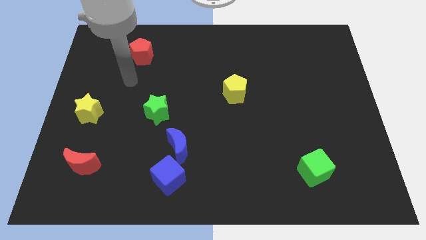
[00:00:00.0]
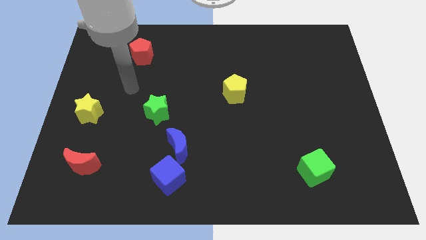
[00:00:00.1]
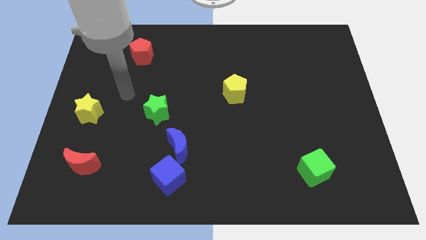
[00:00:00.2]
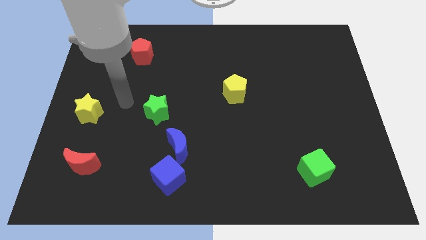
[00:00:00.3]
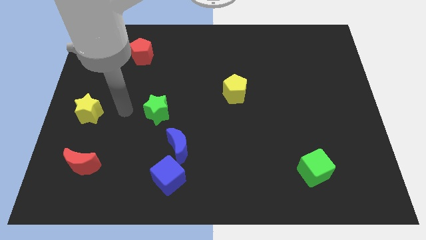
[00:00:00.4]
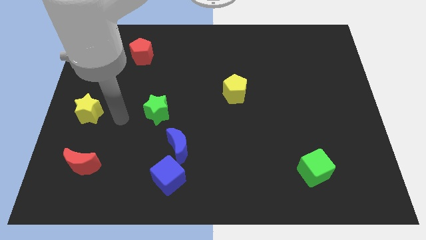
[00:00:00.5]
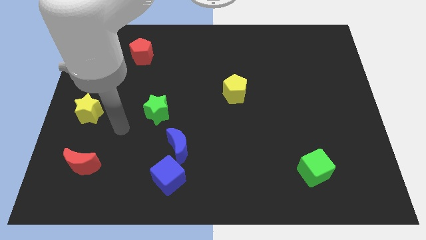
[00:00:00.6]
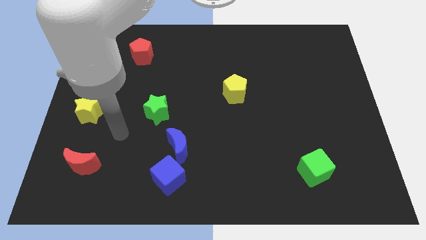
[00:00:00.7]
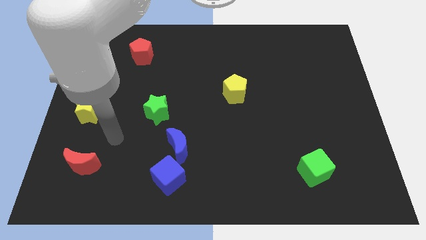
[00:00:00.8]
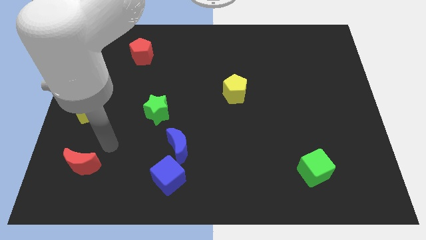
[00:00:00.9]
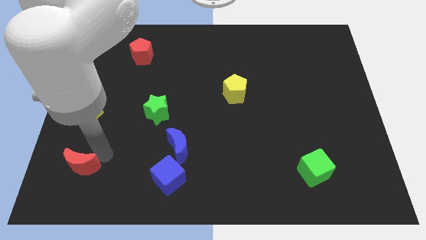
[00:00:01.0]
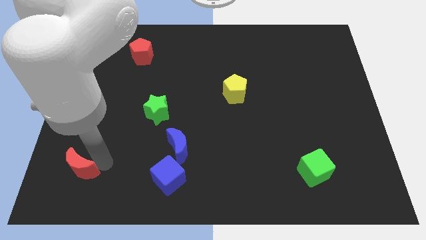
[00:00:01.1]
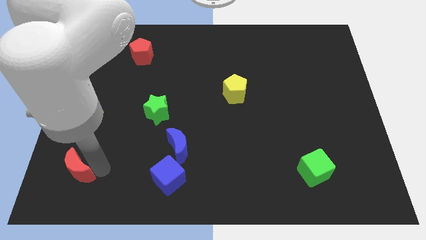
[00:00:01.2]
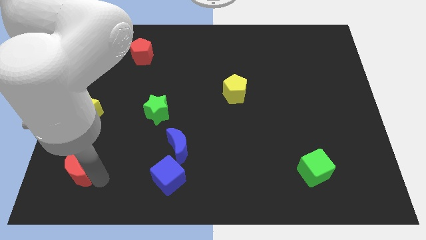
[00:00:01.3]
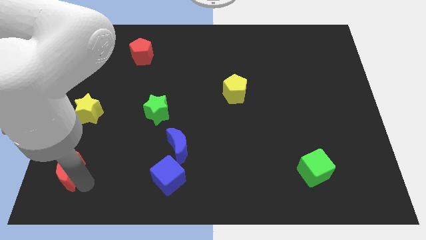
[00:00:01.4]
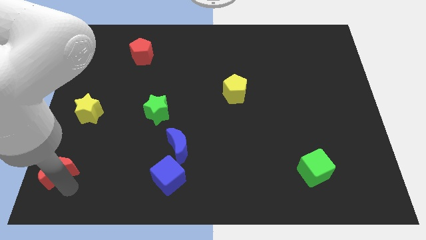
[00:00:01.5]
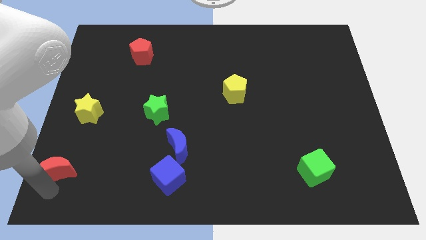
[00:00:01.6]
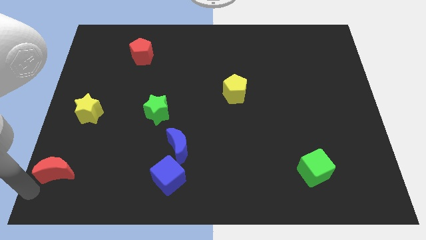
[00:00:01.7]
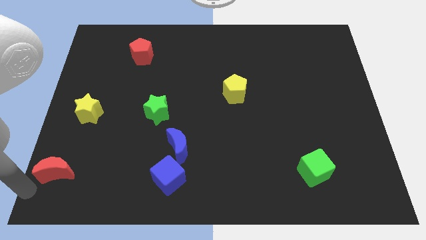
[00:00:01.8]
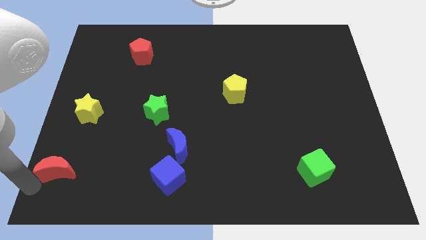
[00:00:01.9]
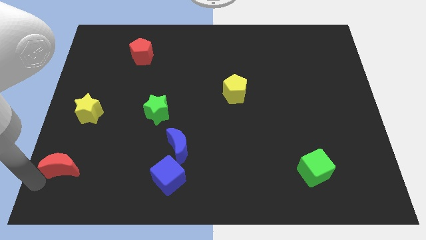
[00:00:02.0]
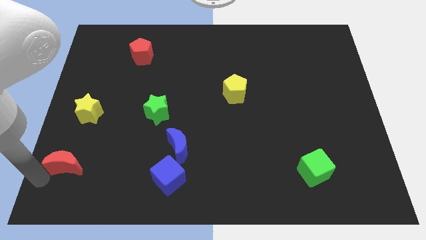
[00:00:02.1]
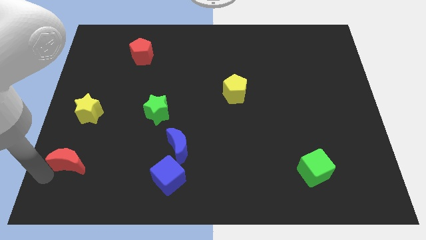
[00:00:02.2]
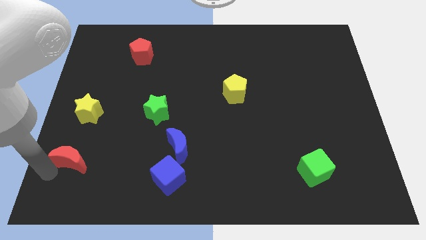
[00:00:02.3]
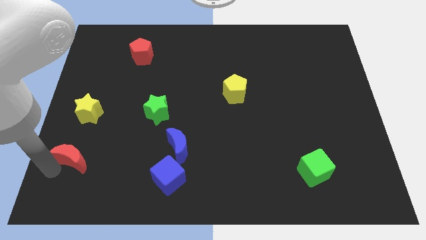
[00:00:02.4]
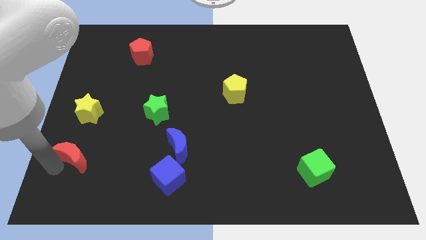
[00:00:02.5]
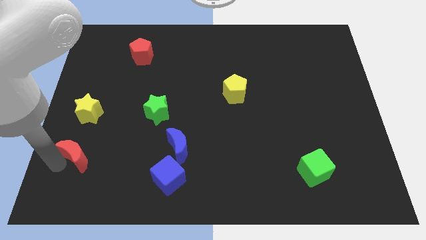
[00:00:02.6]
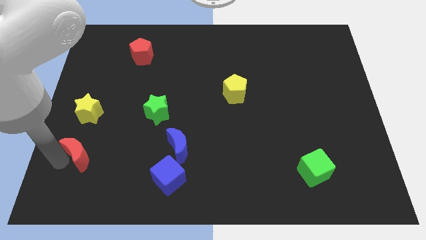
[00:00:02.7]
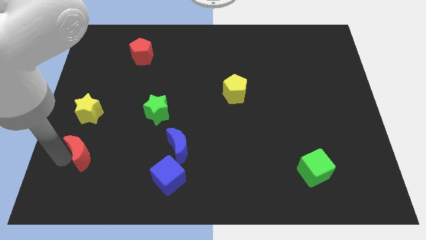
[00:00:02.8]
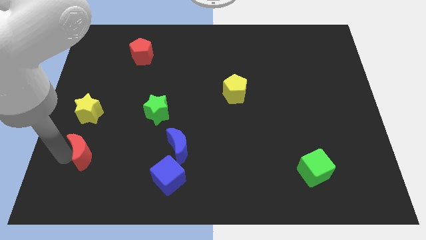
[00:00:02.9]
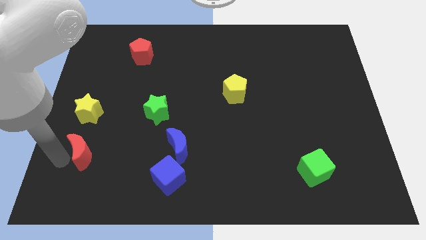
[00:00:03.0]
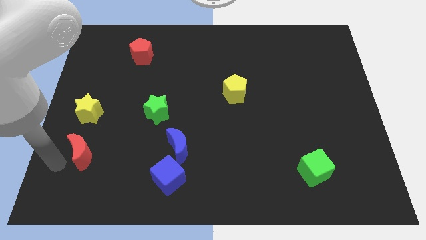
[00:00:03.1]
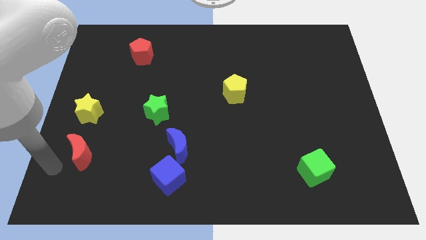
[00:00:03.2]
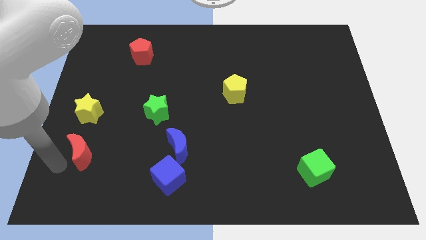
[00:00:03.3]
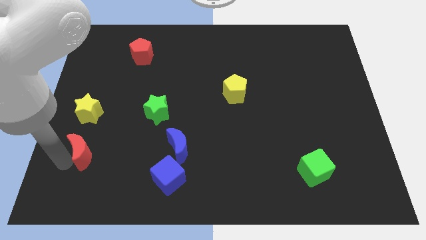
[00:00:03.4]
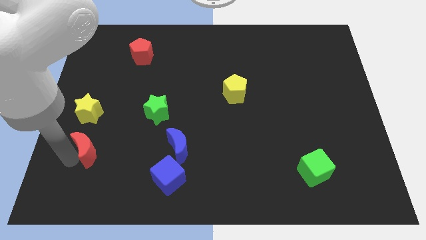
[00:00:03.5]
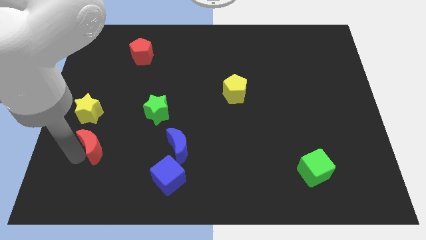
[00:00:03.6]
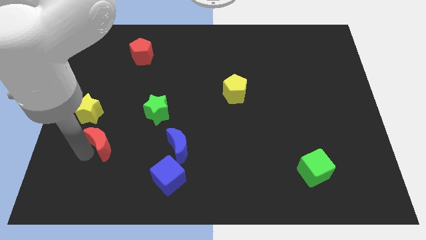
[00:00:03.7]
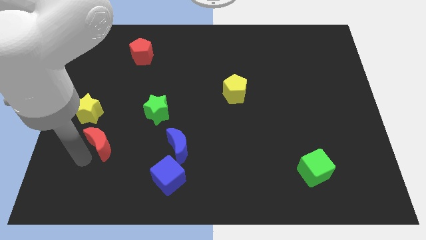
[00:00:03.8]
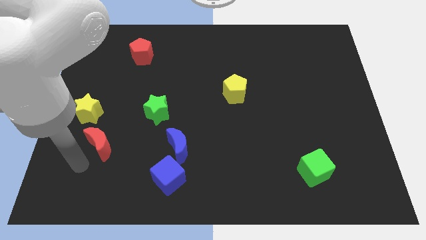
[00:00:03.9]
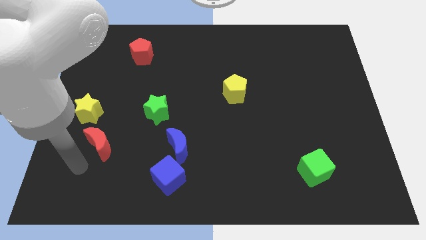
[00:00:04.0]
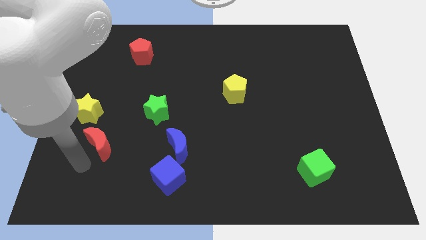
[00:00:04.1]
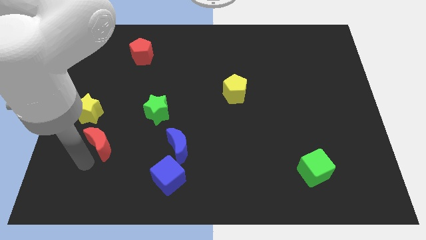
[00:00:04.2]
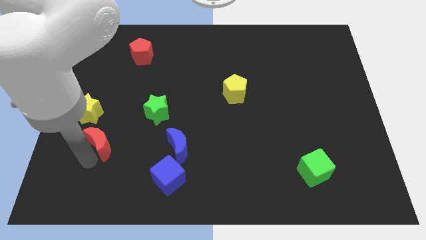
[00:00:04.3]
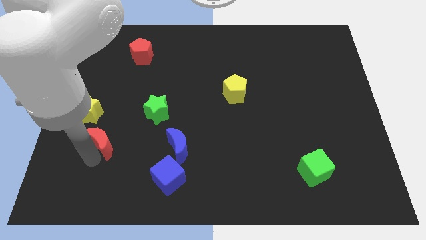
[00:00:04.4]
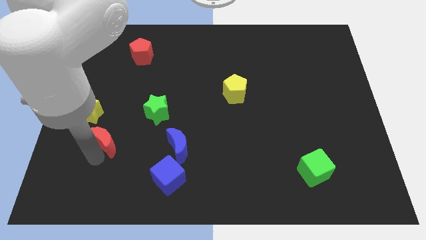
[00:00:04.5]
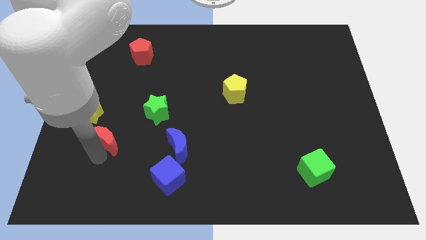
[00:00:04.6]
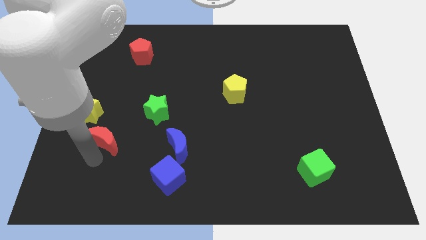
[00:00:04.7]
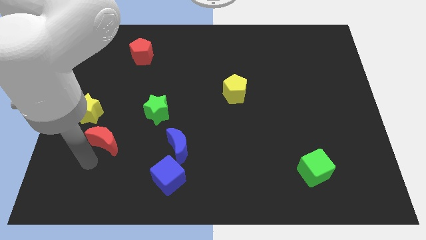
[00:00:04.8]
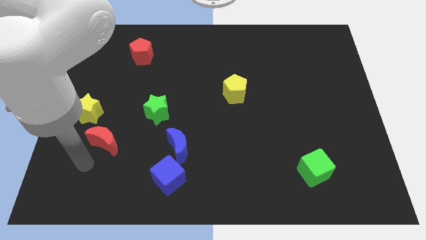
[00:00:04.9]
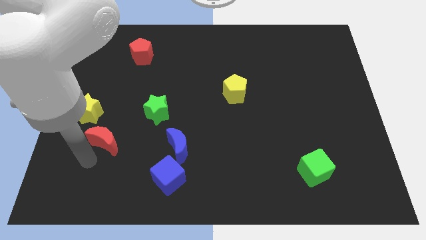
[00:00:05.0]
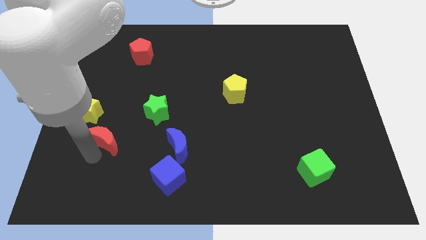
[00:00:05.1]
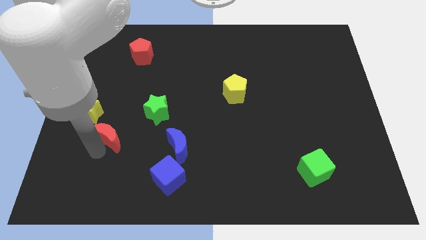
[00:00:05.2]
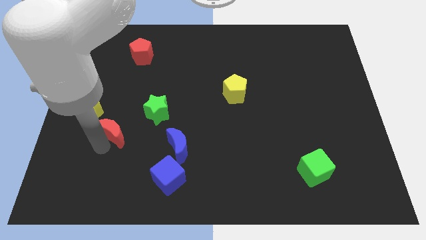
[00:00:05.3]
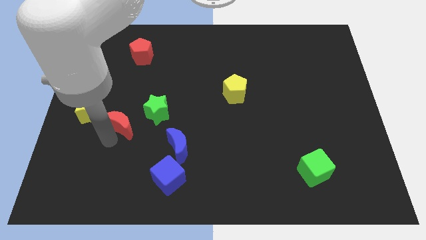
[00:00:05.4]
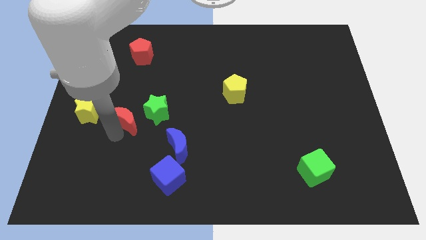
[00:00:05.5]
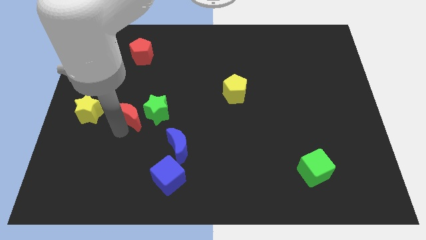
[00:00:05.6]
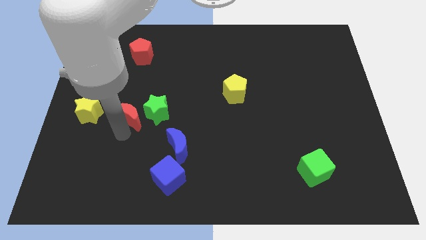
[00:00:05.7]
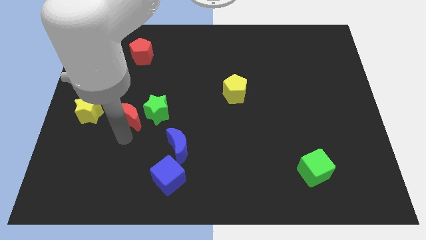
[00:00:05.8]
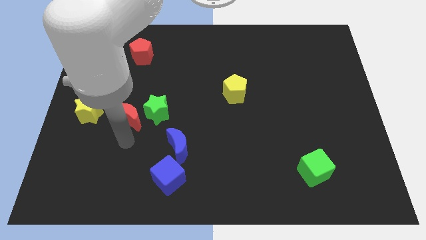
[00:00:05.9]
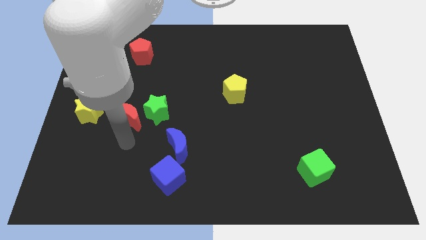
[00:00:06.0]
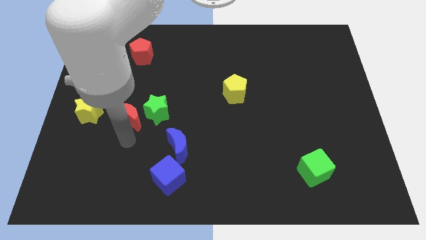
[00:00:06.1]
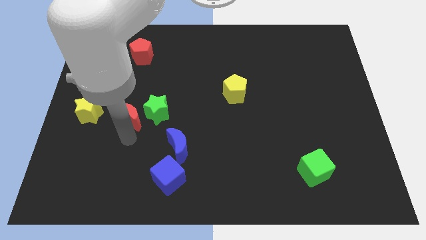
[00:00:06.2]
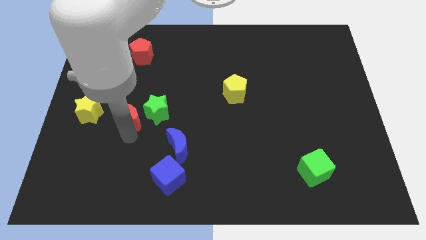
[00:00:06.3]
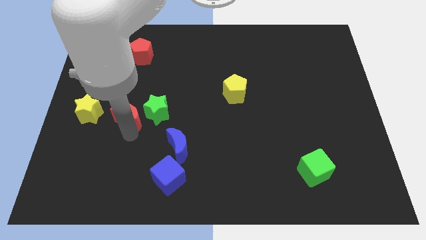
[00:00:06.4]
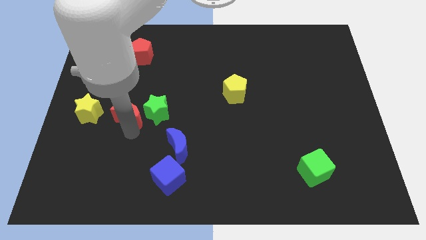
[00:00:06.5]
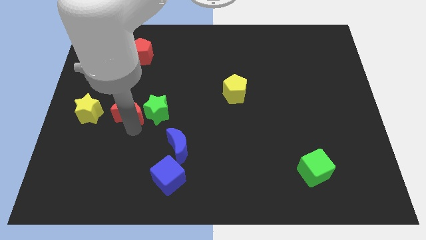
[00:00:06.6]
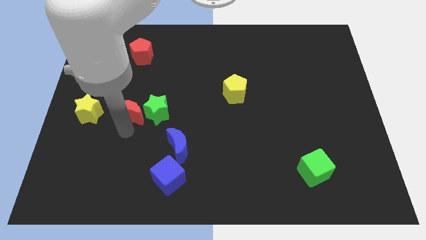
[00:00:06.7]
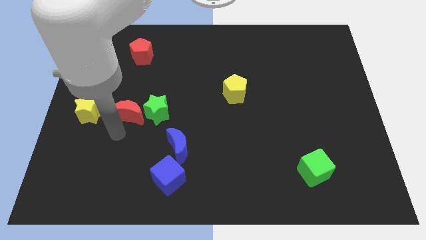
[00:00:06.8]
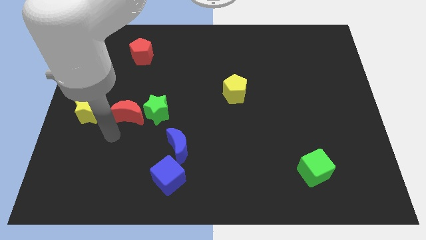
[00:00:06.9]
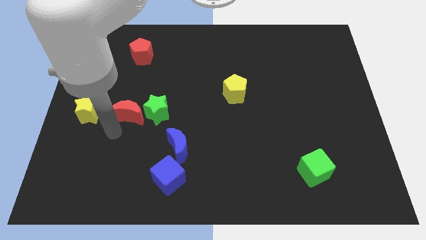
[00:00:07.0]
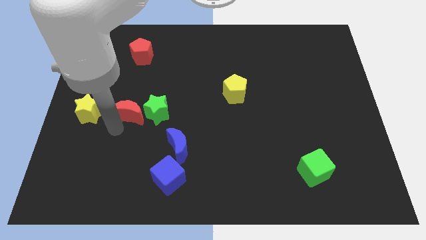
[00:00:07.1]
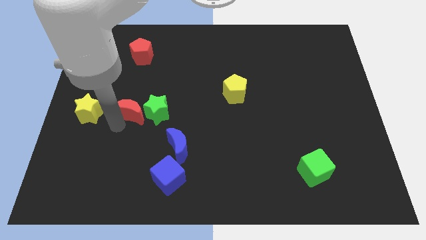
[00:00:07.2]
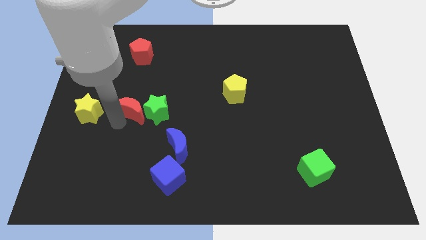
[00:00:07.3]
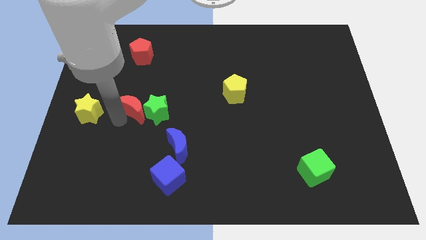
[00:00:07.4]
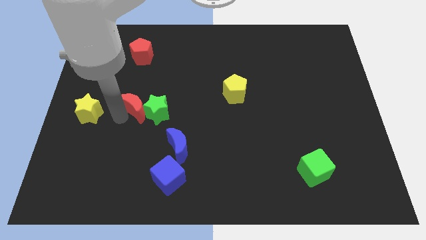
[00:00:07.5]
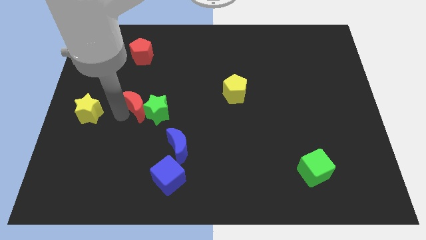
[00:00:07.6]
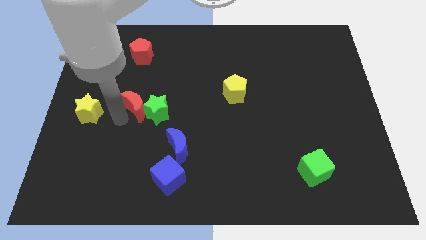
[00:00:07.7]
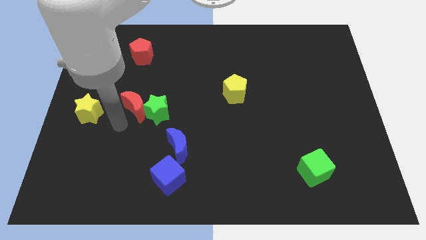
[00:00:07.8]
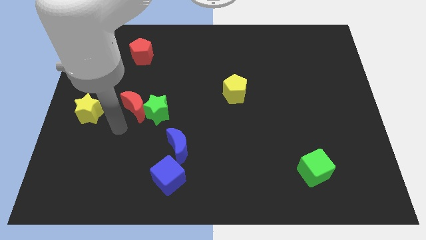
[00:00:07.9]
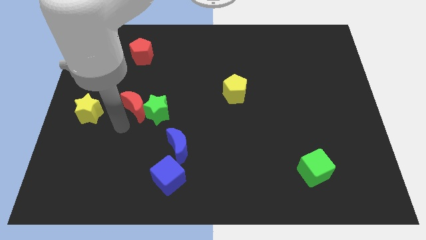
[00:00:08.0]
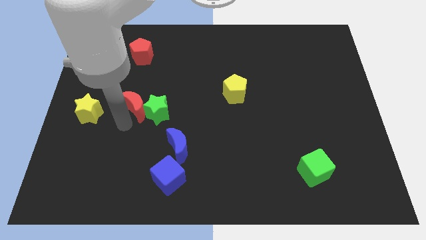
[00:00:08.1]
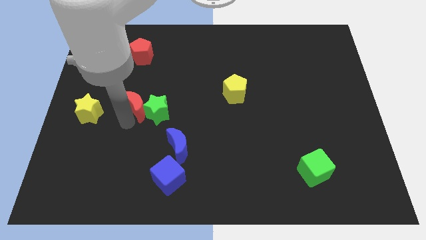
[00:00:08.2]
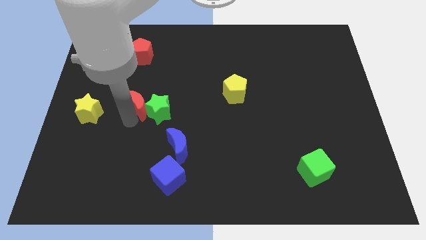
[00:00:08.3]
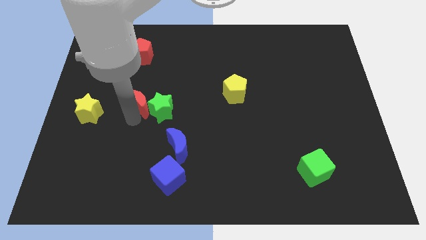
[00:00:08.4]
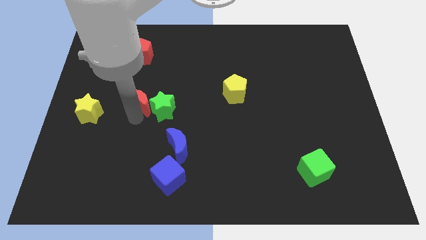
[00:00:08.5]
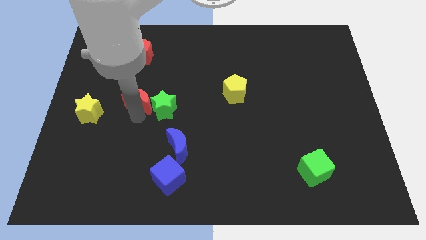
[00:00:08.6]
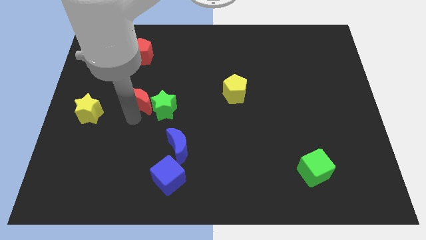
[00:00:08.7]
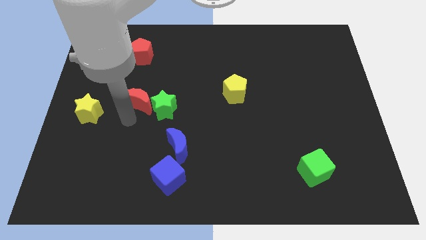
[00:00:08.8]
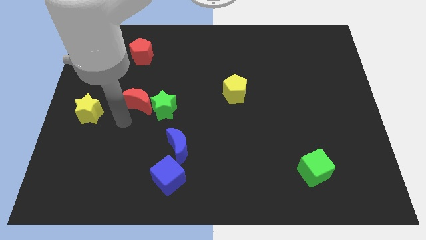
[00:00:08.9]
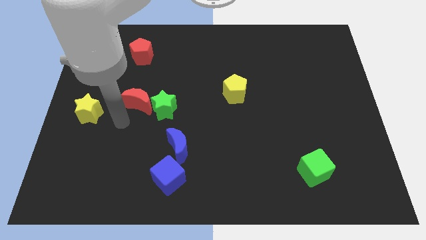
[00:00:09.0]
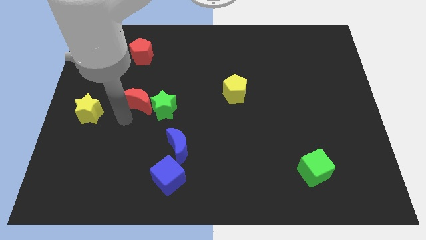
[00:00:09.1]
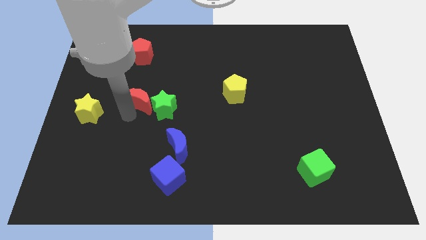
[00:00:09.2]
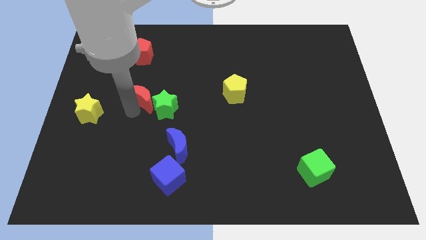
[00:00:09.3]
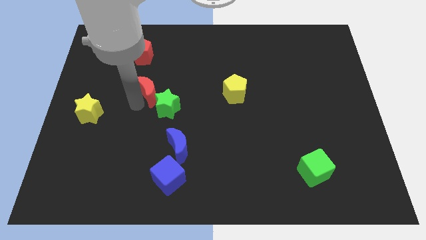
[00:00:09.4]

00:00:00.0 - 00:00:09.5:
push the red moon diagonally upwards and right
